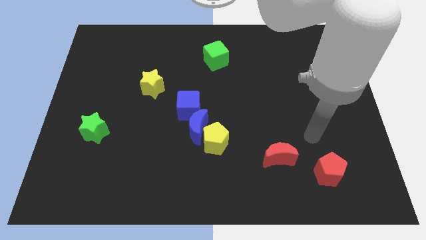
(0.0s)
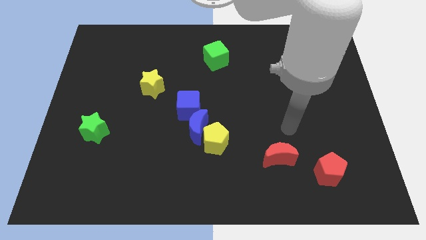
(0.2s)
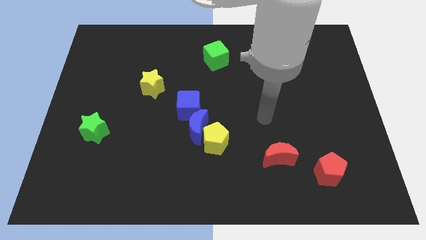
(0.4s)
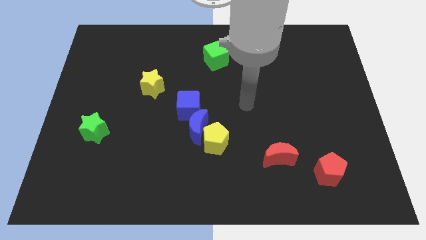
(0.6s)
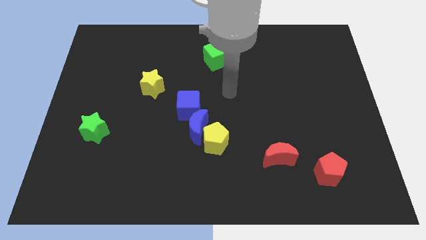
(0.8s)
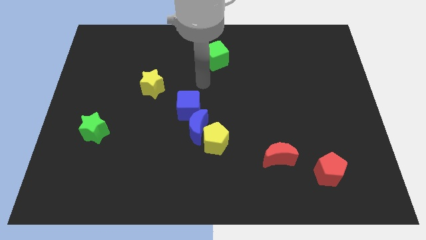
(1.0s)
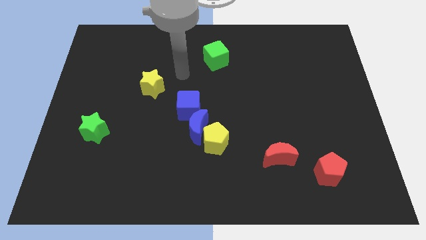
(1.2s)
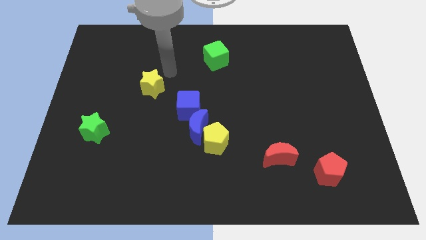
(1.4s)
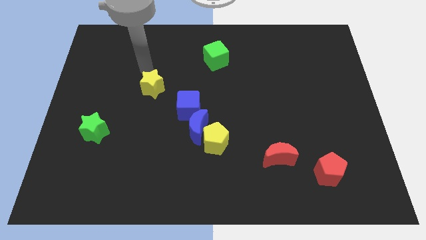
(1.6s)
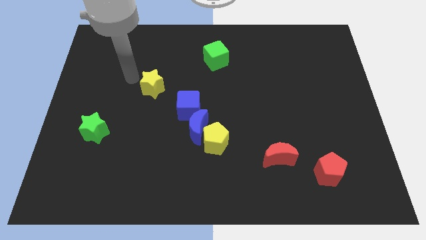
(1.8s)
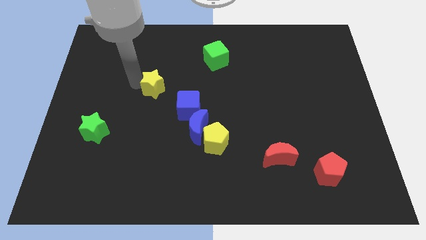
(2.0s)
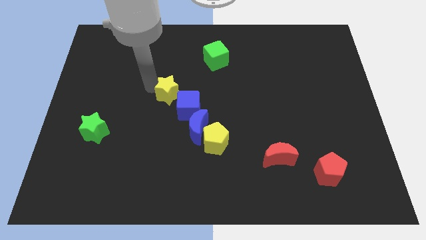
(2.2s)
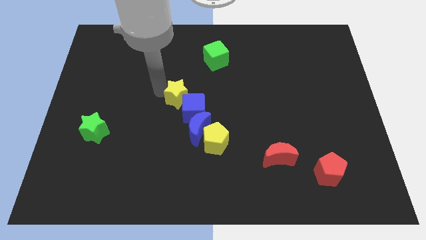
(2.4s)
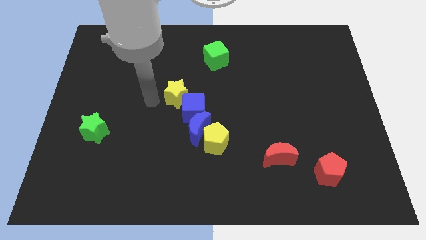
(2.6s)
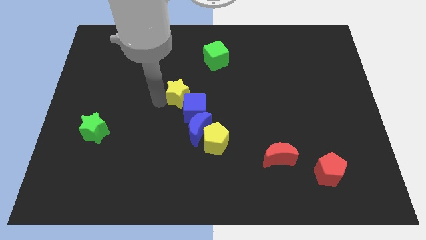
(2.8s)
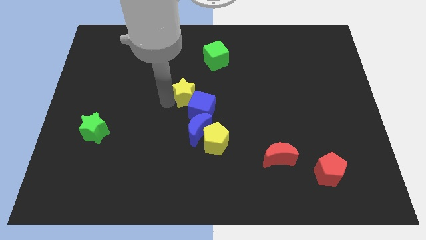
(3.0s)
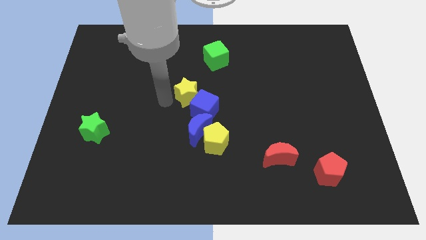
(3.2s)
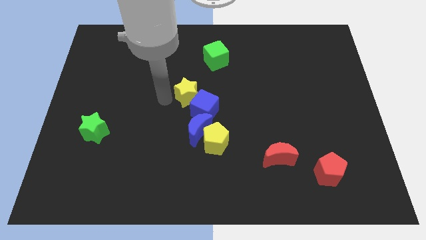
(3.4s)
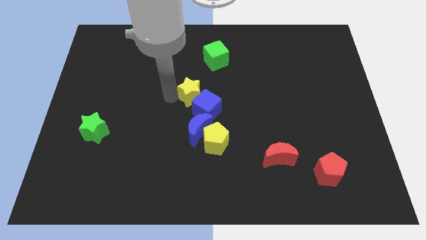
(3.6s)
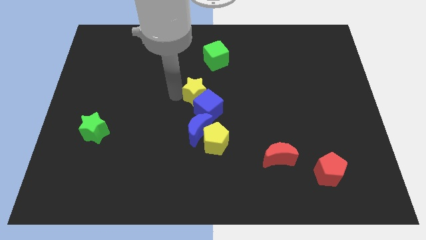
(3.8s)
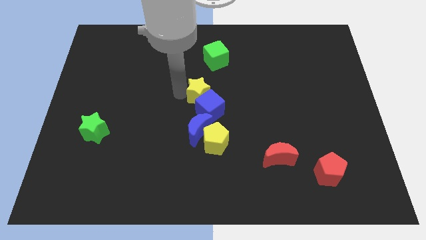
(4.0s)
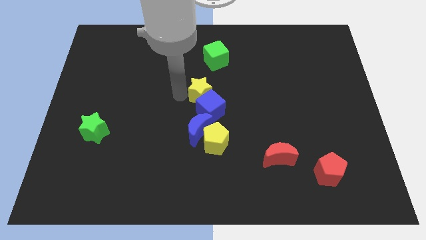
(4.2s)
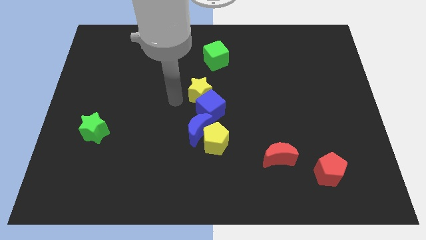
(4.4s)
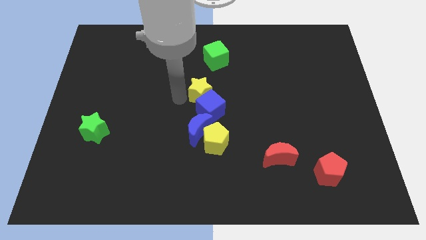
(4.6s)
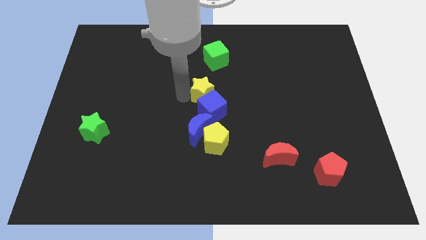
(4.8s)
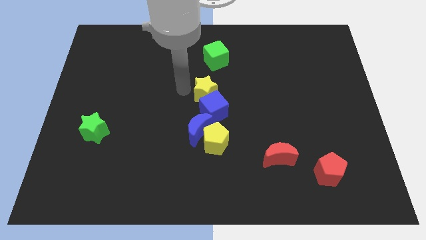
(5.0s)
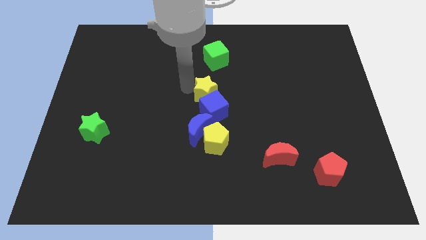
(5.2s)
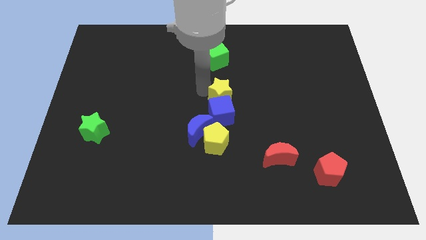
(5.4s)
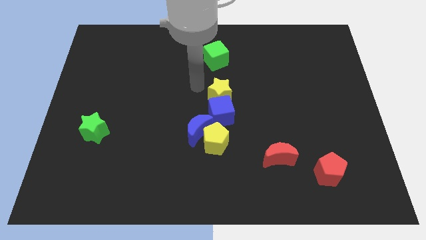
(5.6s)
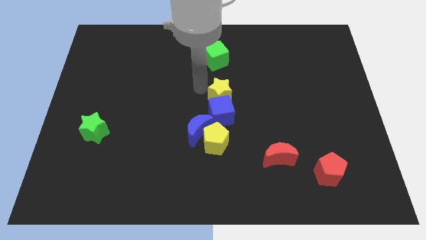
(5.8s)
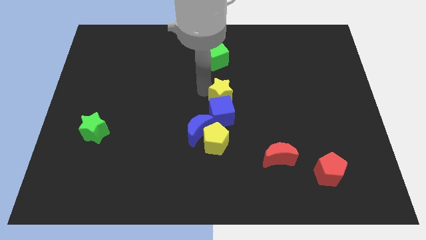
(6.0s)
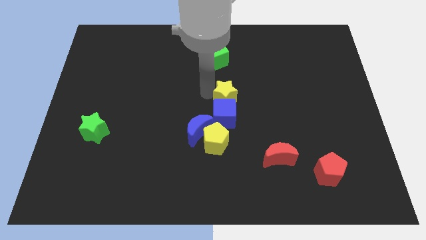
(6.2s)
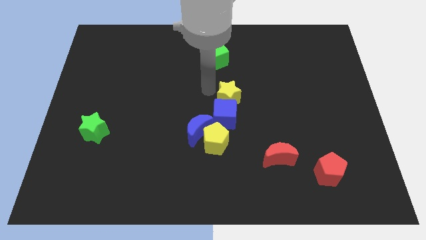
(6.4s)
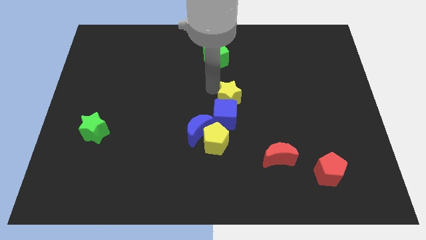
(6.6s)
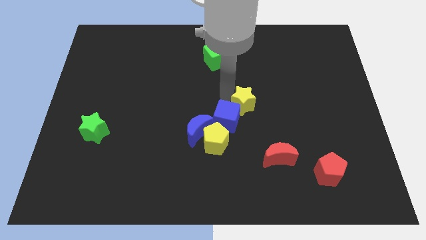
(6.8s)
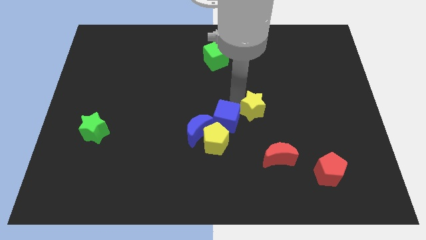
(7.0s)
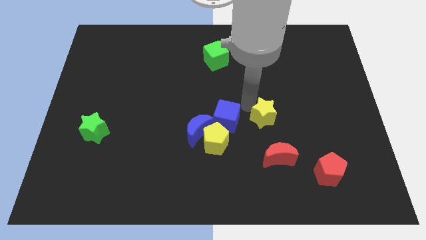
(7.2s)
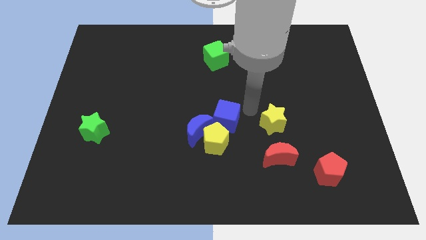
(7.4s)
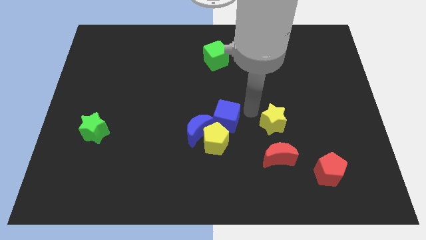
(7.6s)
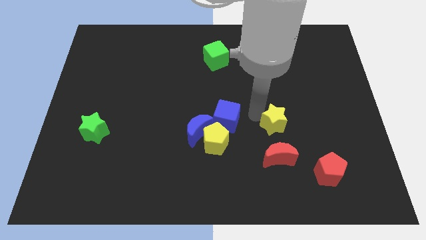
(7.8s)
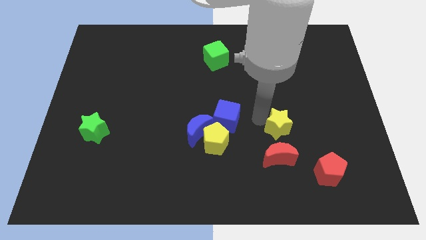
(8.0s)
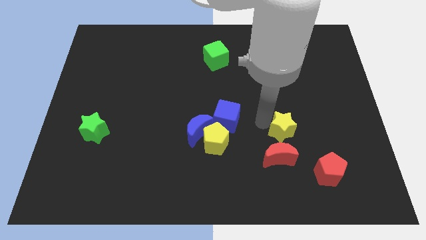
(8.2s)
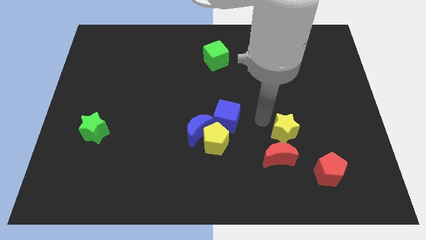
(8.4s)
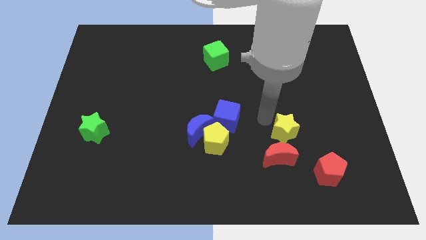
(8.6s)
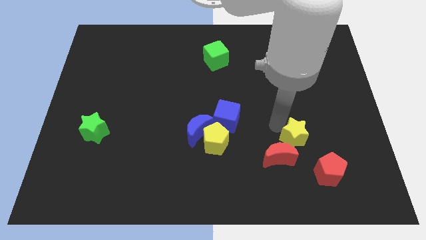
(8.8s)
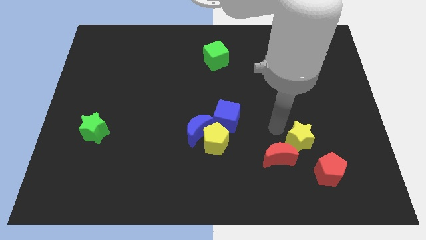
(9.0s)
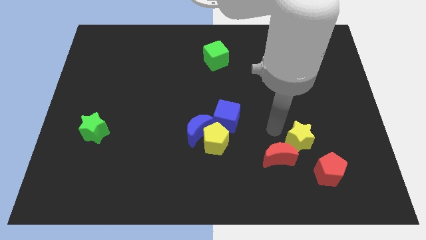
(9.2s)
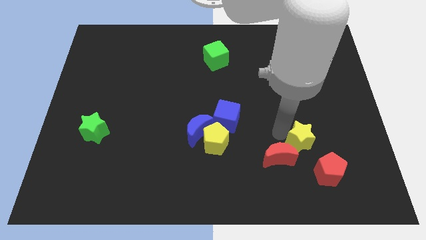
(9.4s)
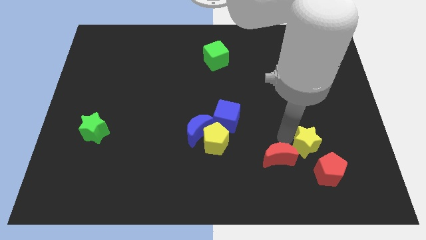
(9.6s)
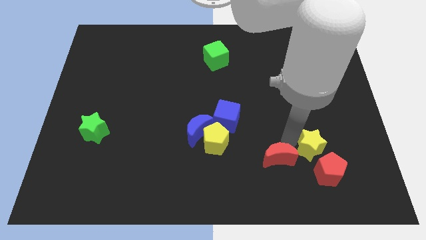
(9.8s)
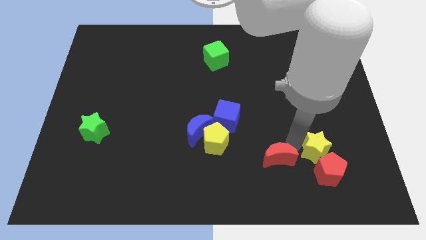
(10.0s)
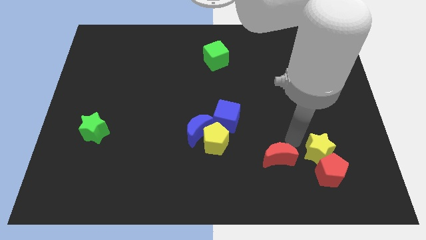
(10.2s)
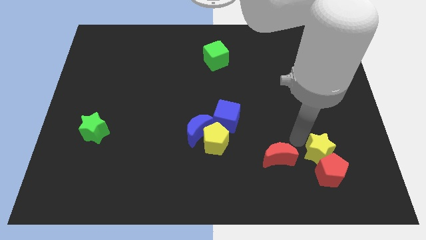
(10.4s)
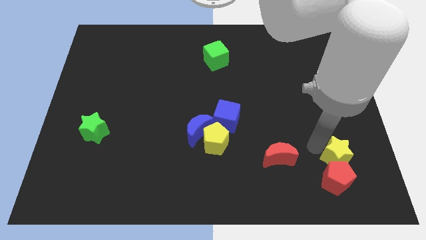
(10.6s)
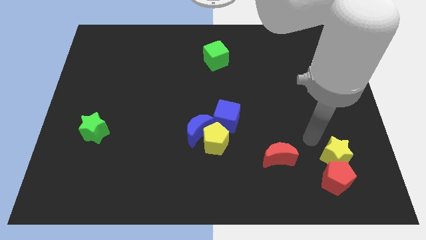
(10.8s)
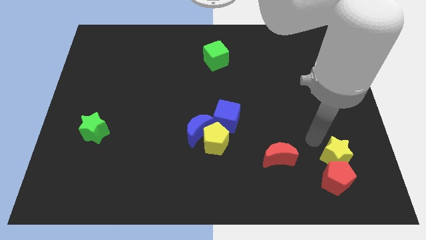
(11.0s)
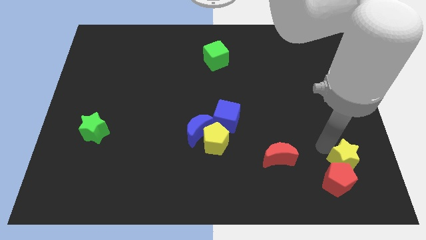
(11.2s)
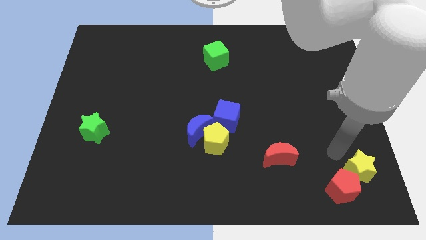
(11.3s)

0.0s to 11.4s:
put the yellow star to the lower right corner

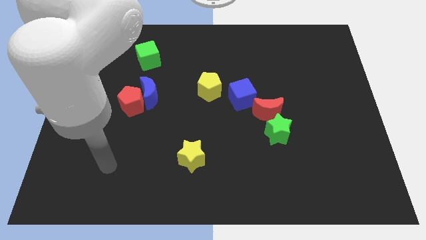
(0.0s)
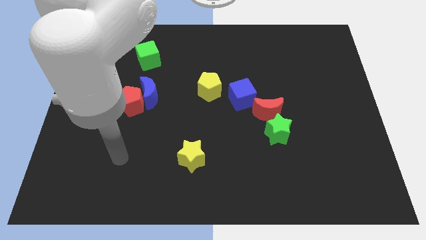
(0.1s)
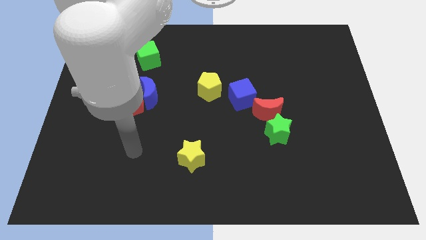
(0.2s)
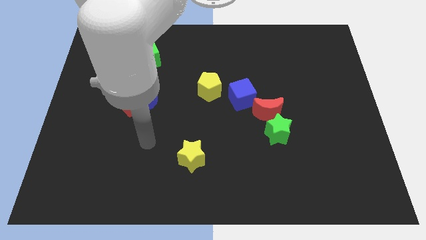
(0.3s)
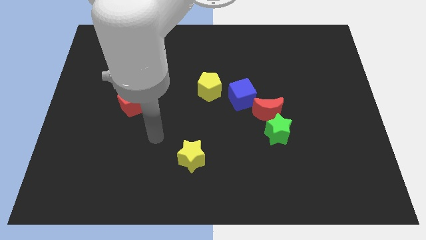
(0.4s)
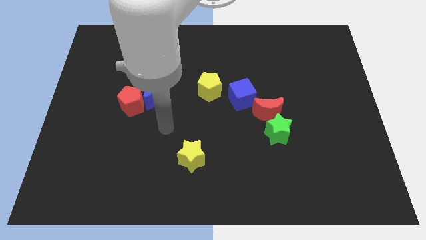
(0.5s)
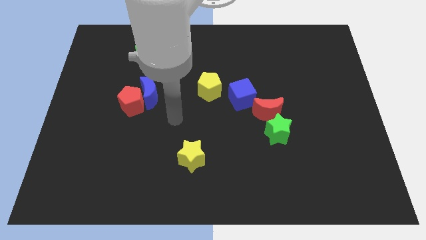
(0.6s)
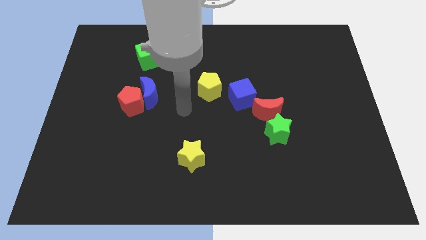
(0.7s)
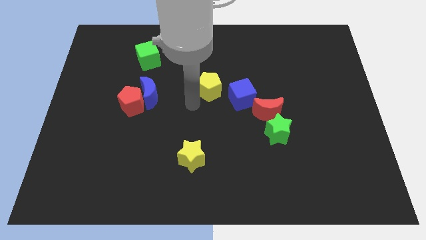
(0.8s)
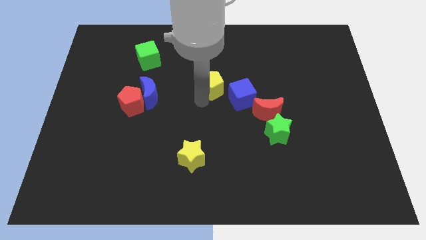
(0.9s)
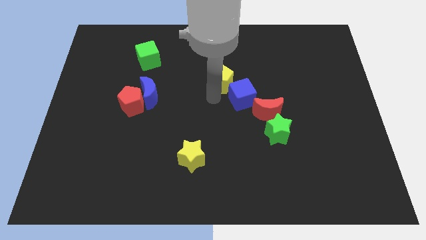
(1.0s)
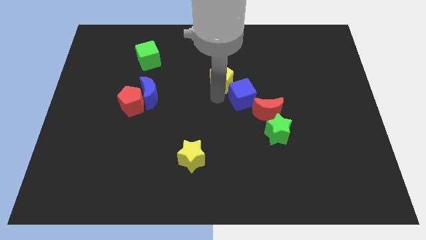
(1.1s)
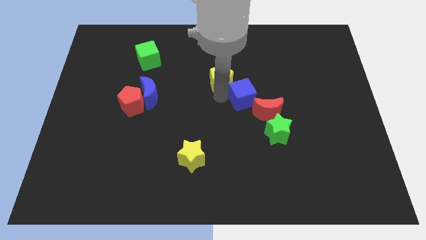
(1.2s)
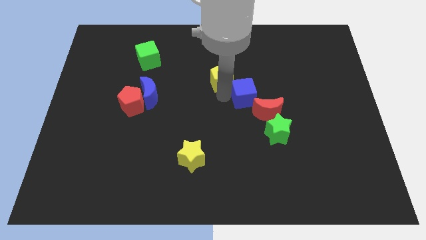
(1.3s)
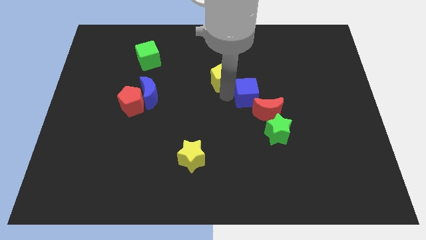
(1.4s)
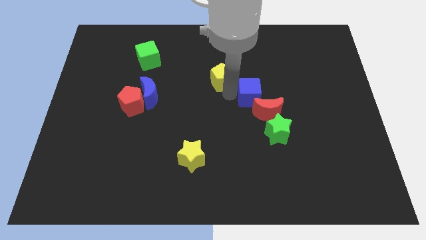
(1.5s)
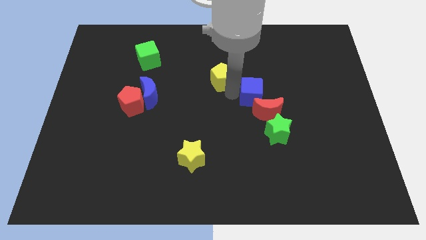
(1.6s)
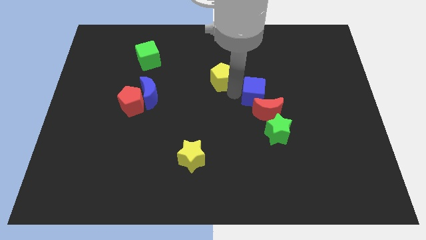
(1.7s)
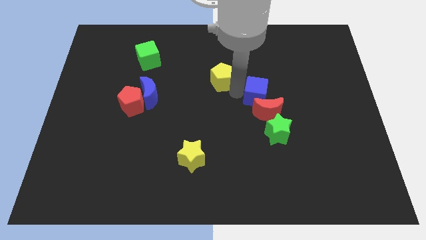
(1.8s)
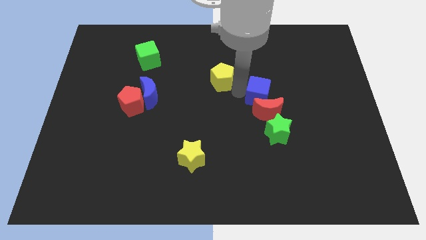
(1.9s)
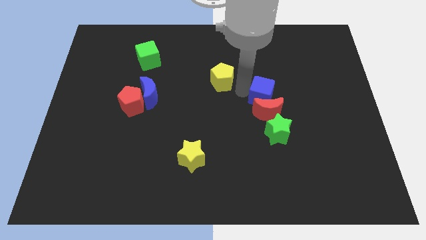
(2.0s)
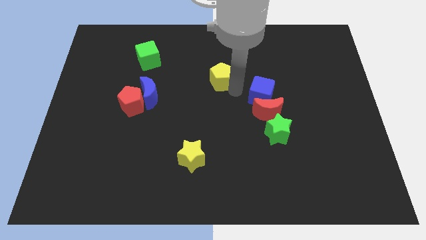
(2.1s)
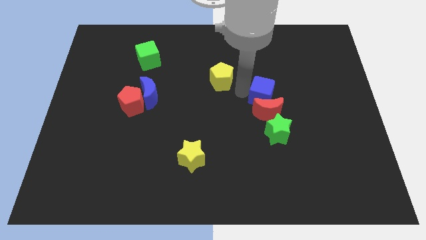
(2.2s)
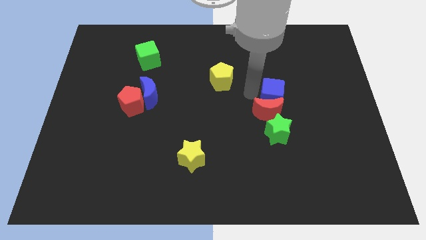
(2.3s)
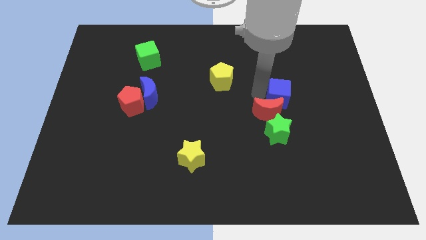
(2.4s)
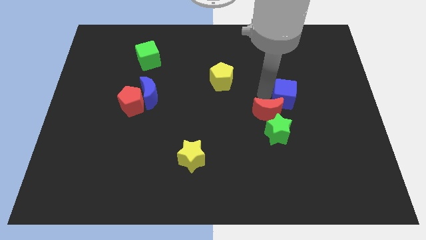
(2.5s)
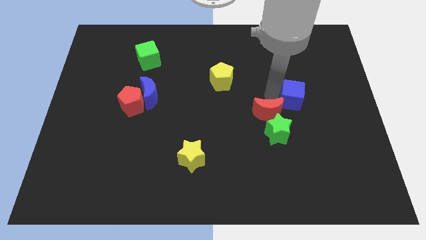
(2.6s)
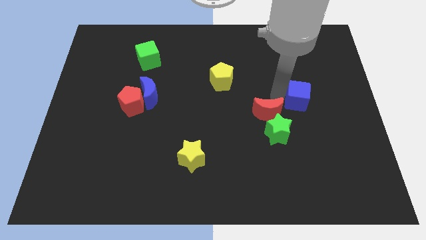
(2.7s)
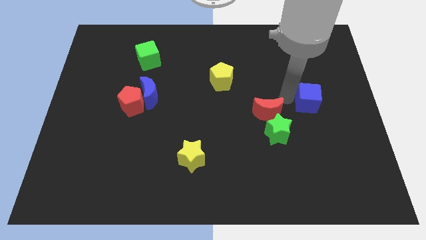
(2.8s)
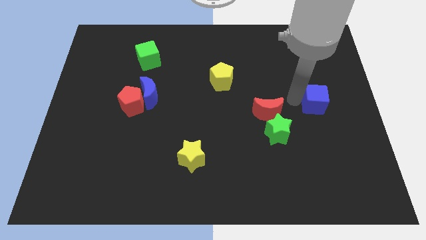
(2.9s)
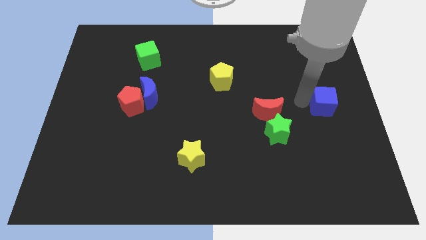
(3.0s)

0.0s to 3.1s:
put the blue cube to the right side
